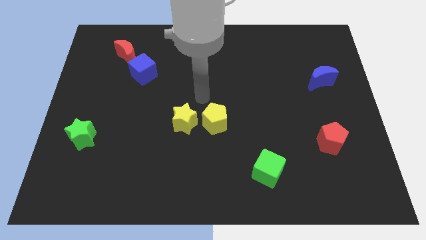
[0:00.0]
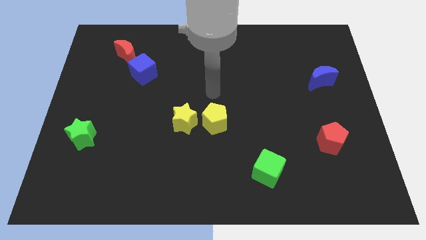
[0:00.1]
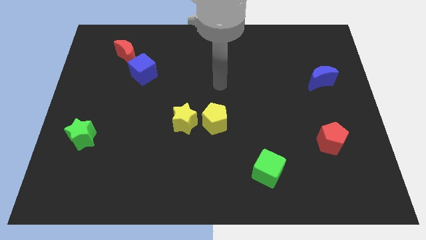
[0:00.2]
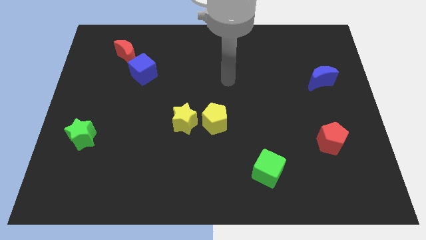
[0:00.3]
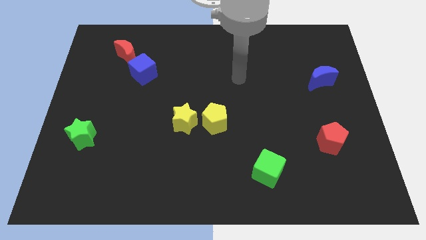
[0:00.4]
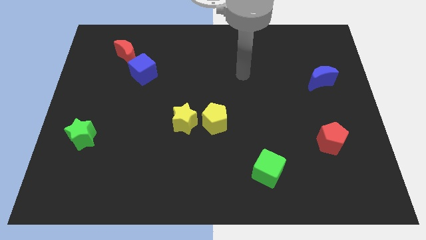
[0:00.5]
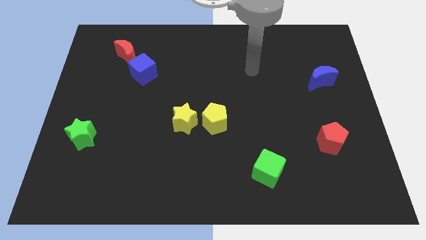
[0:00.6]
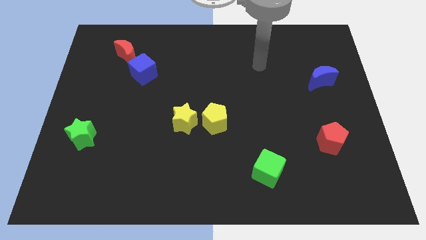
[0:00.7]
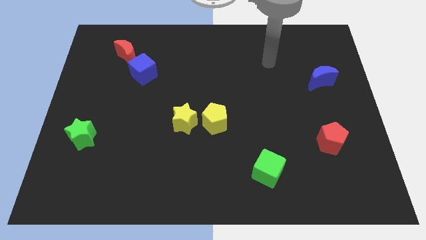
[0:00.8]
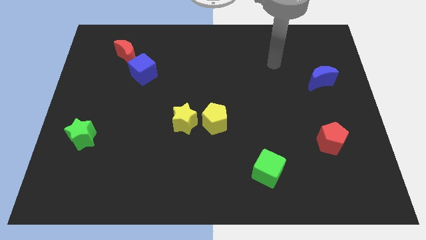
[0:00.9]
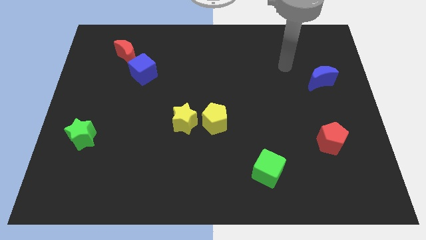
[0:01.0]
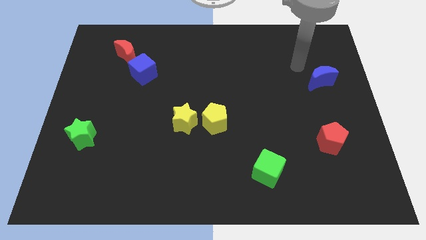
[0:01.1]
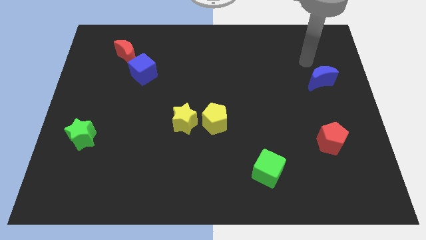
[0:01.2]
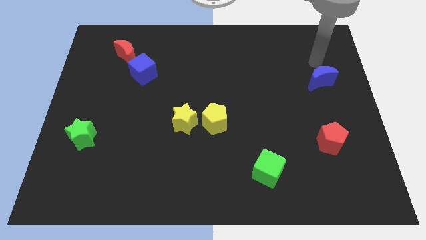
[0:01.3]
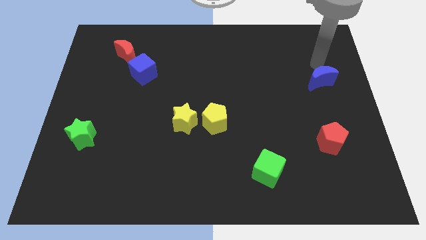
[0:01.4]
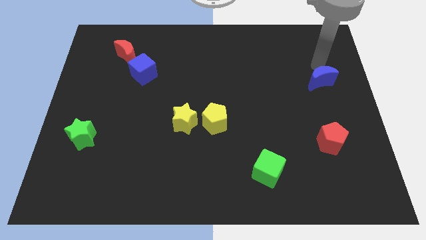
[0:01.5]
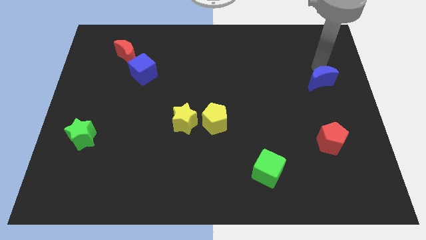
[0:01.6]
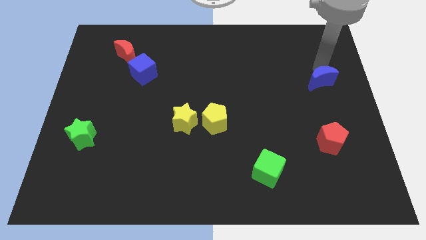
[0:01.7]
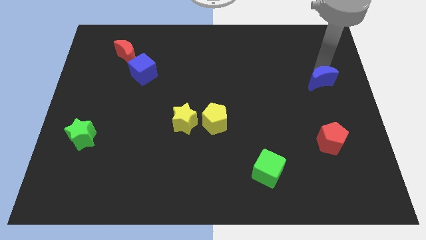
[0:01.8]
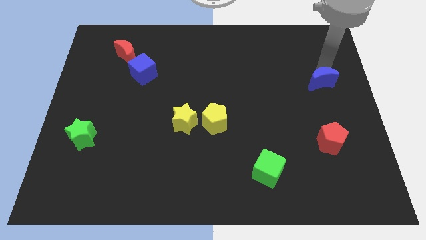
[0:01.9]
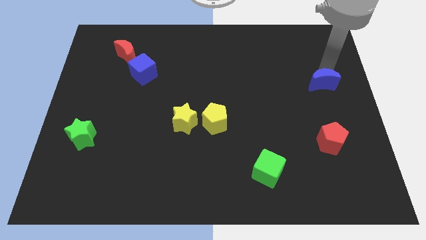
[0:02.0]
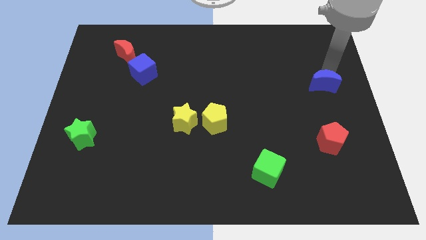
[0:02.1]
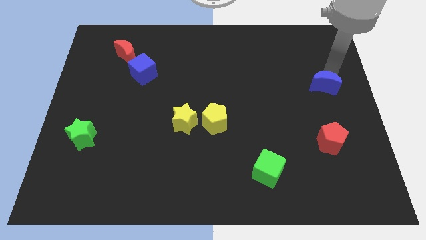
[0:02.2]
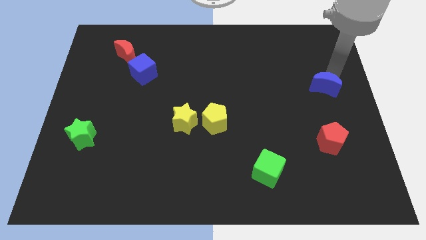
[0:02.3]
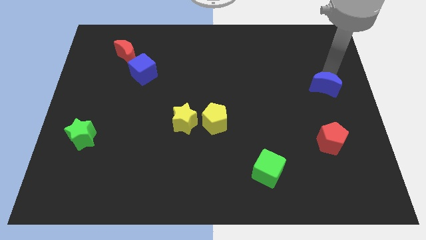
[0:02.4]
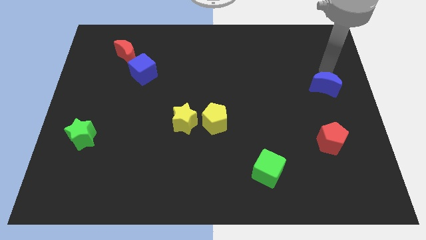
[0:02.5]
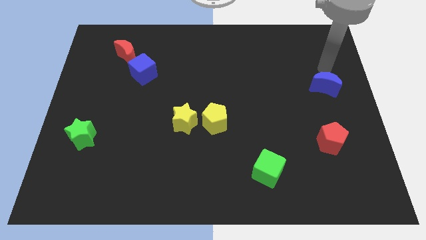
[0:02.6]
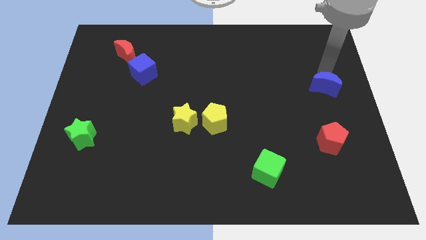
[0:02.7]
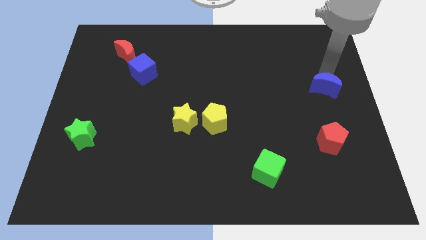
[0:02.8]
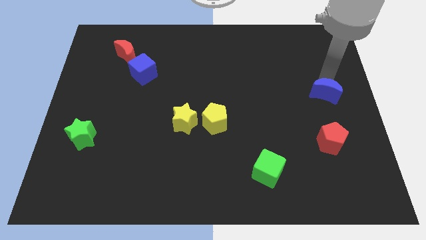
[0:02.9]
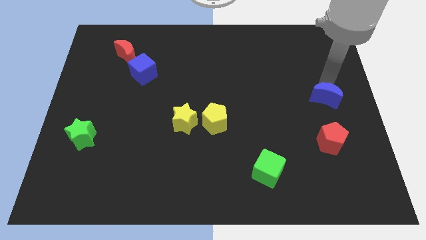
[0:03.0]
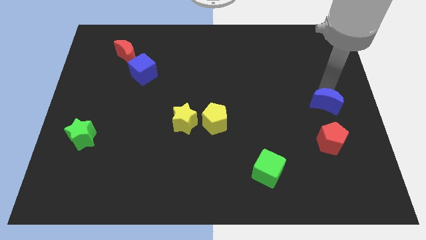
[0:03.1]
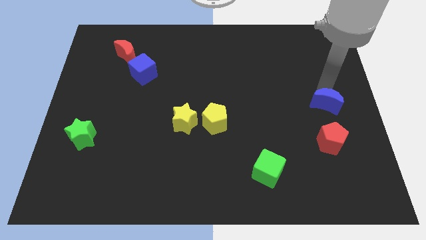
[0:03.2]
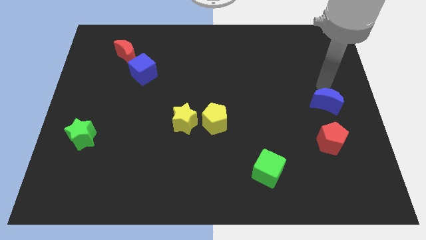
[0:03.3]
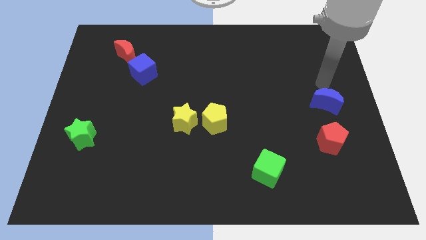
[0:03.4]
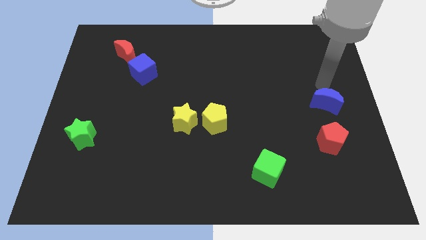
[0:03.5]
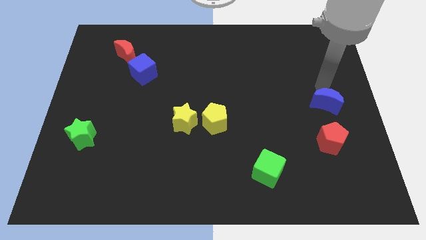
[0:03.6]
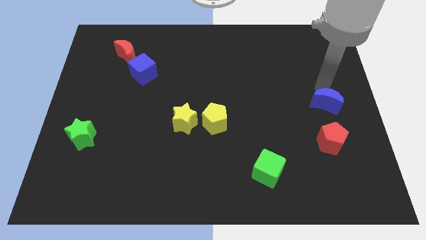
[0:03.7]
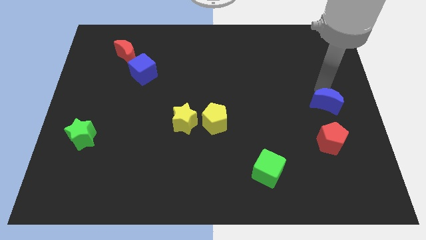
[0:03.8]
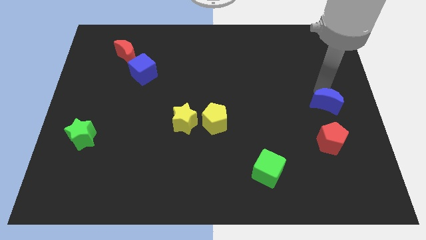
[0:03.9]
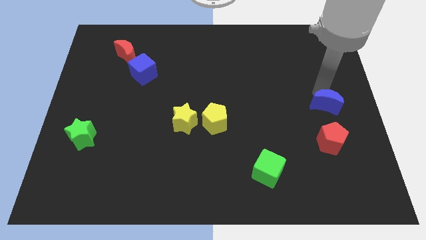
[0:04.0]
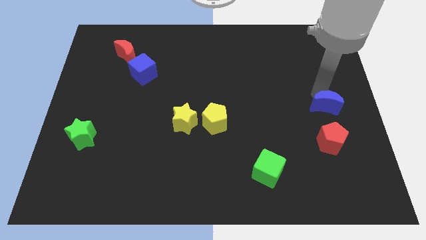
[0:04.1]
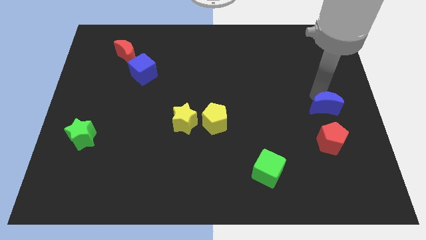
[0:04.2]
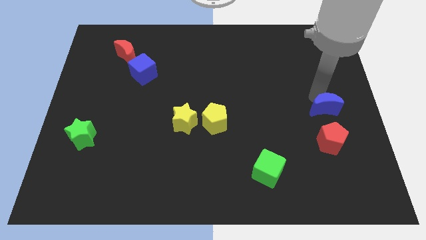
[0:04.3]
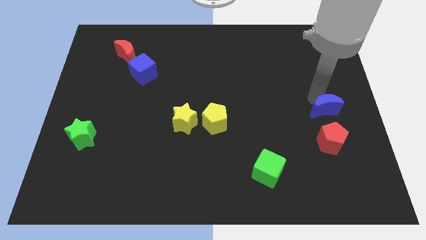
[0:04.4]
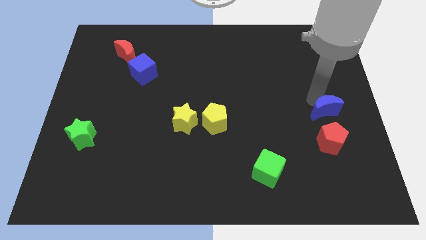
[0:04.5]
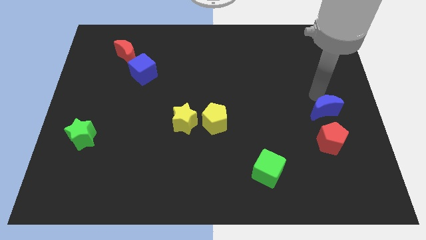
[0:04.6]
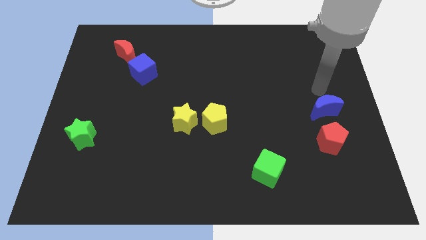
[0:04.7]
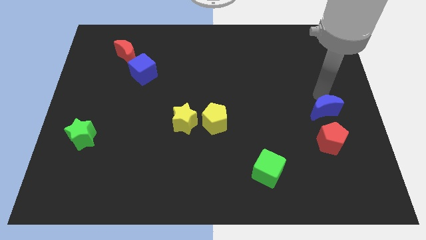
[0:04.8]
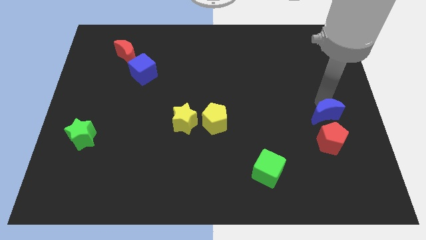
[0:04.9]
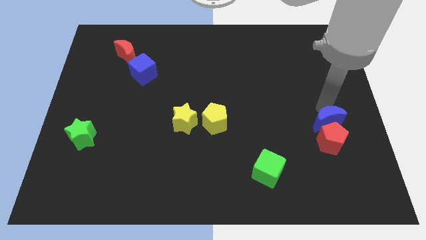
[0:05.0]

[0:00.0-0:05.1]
move the blue moon next to the red pentagon

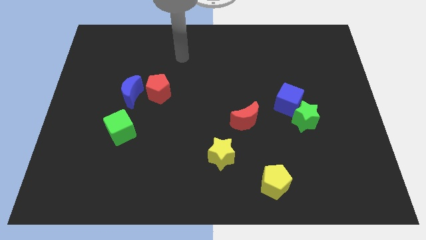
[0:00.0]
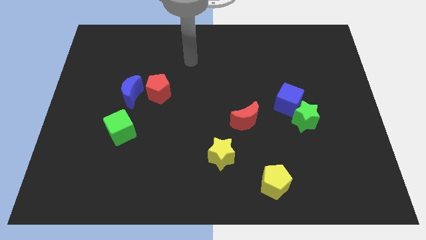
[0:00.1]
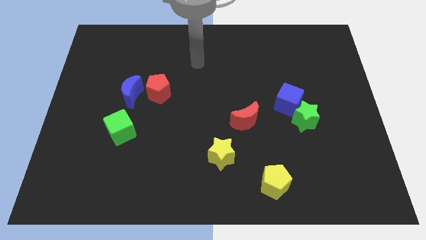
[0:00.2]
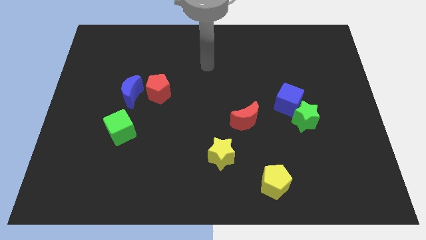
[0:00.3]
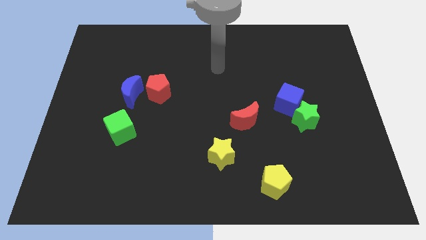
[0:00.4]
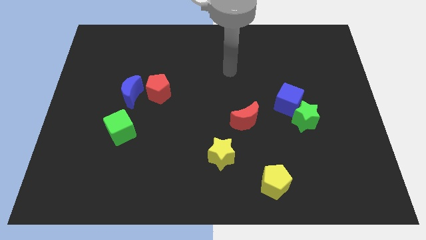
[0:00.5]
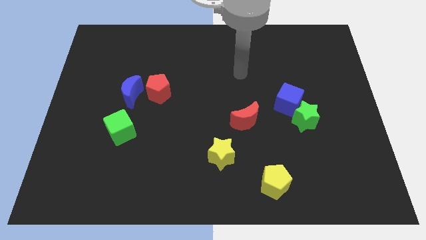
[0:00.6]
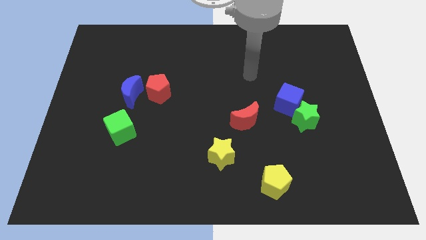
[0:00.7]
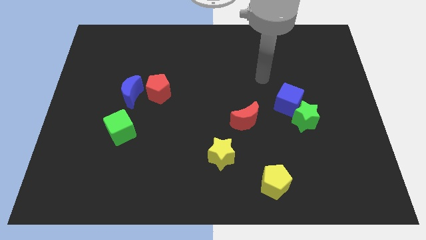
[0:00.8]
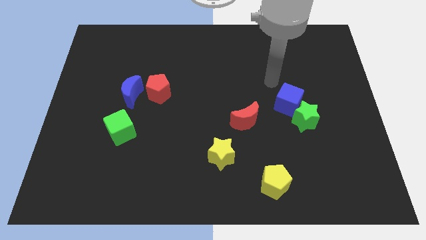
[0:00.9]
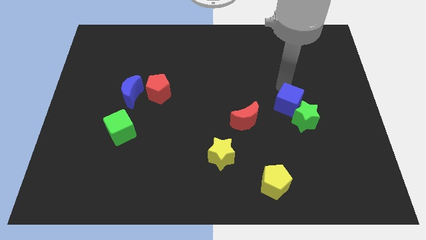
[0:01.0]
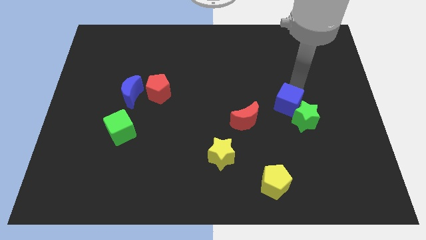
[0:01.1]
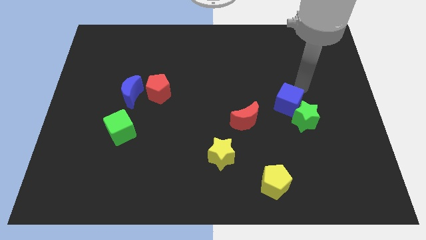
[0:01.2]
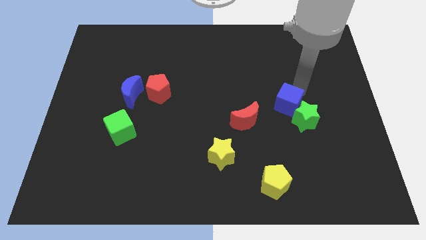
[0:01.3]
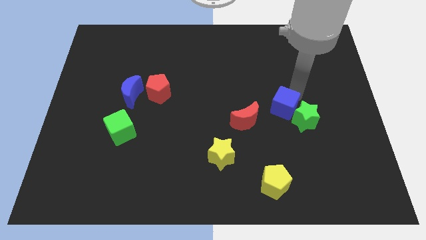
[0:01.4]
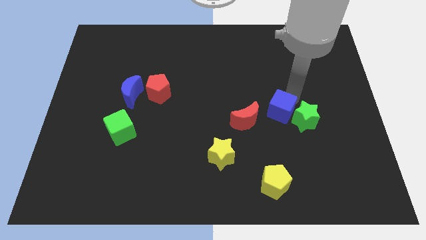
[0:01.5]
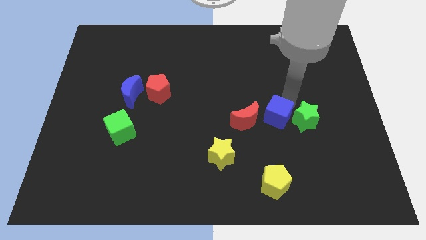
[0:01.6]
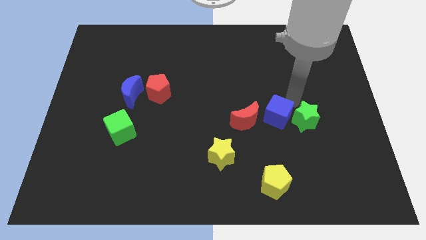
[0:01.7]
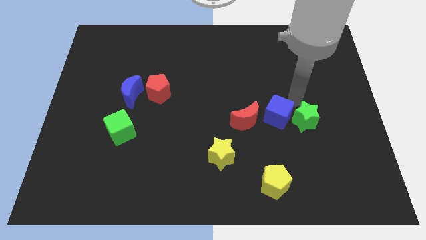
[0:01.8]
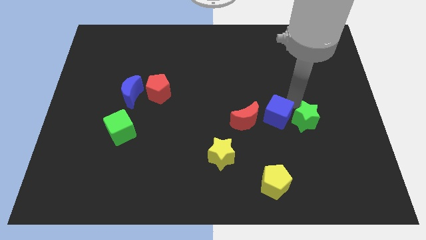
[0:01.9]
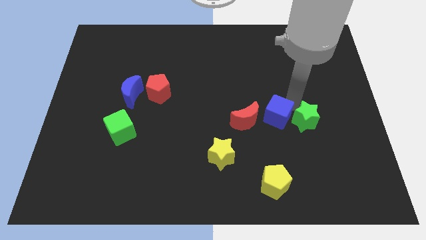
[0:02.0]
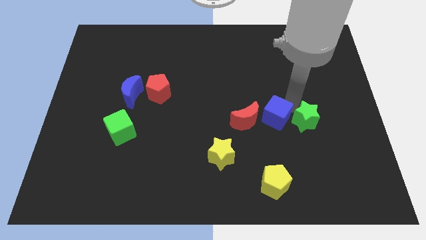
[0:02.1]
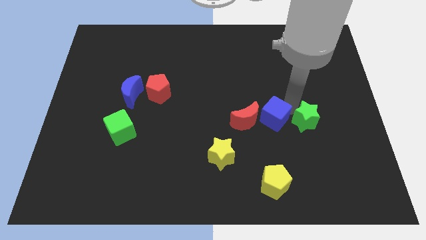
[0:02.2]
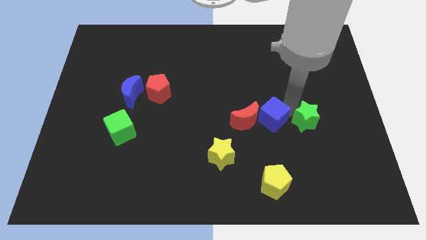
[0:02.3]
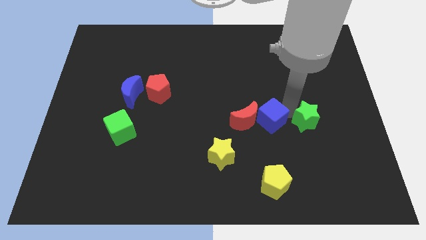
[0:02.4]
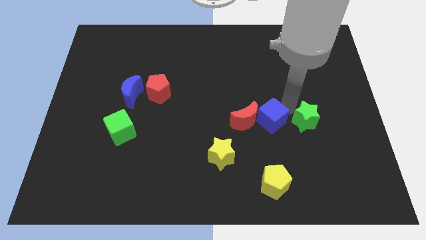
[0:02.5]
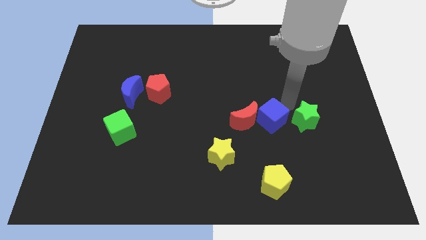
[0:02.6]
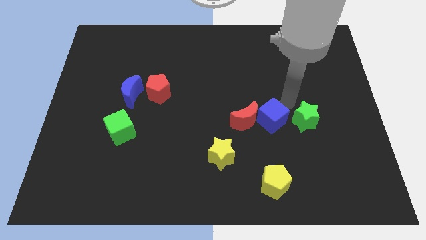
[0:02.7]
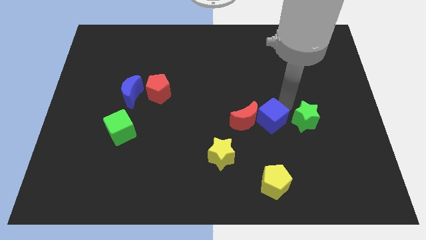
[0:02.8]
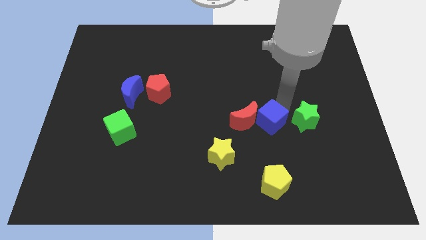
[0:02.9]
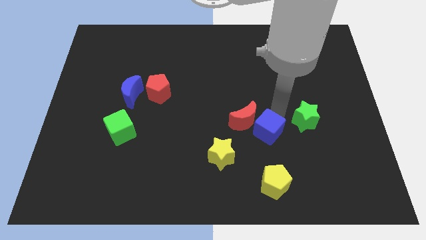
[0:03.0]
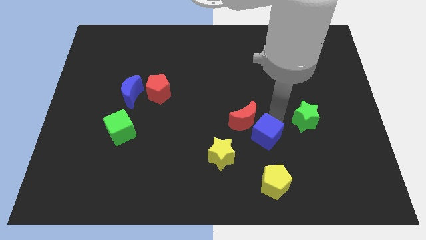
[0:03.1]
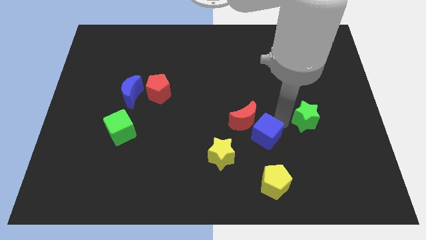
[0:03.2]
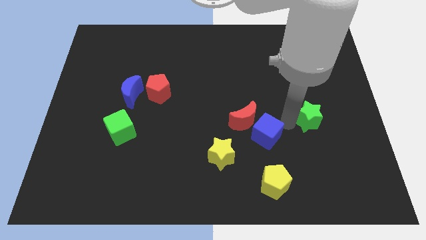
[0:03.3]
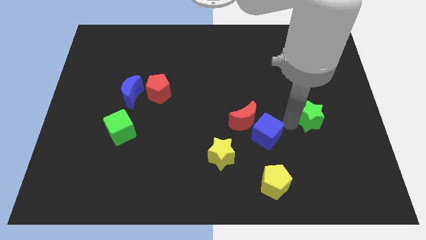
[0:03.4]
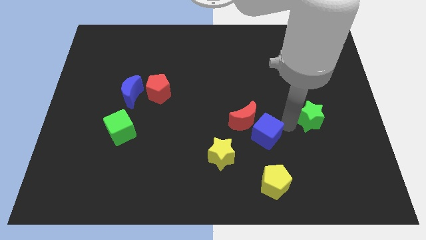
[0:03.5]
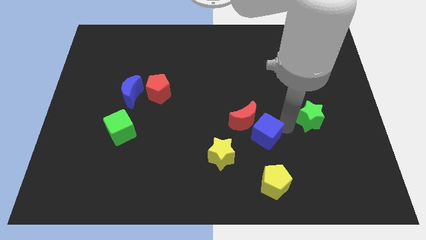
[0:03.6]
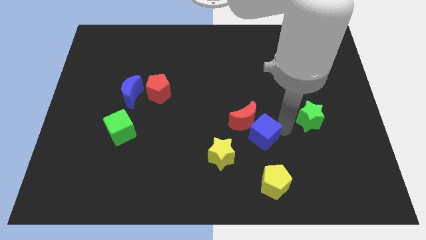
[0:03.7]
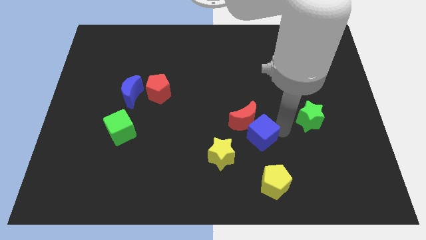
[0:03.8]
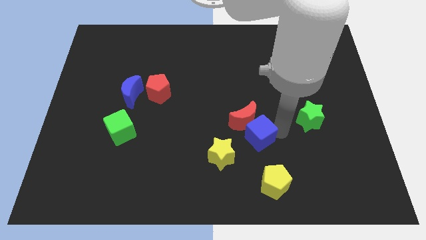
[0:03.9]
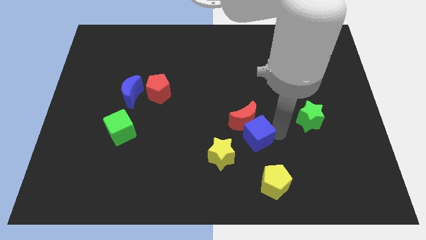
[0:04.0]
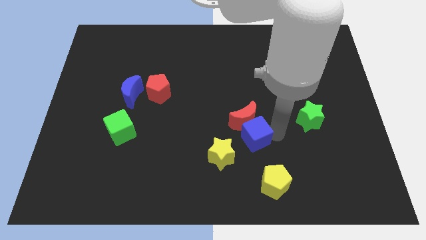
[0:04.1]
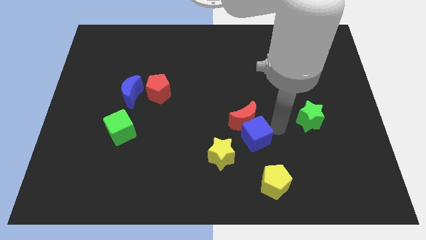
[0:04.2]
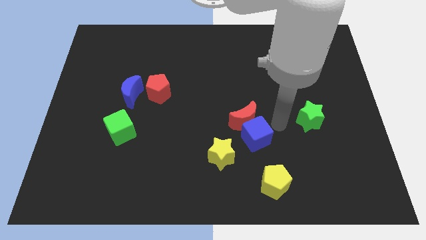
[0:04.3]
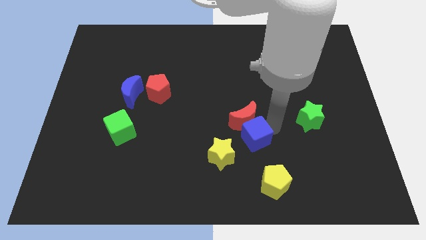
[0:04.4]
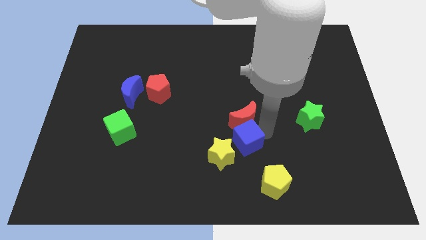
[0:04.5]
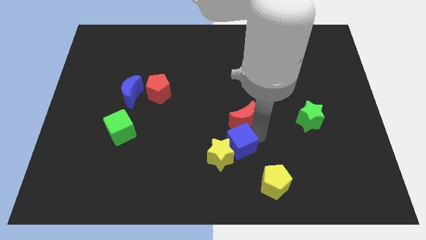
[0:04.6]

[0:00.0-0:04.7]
put the blue cube close to the yellow star
